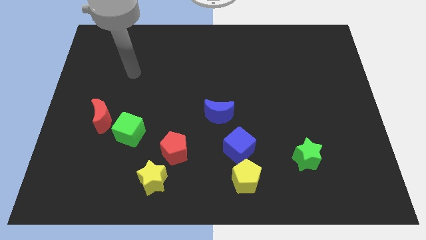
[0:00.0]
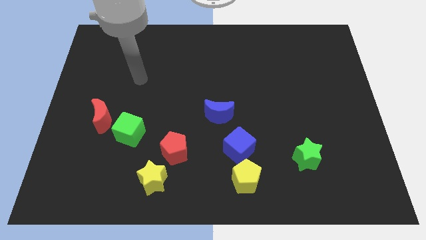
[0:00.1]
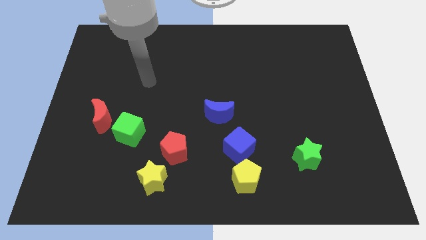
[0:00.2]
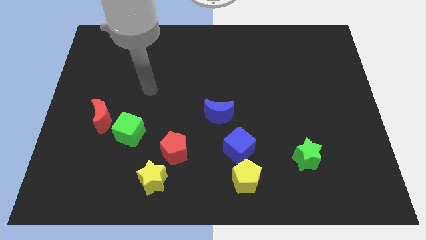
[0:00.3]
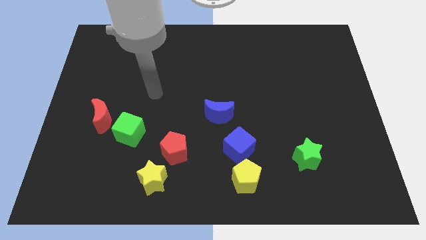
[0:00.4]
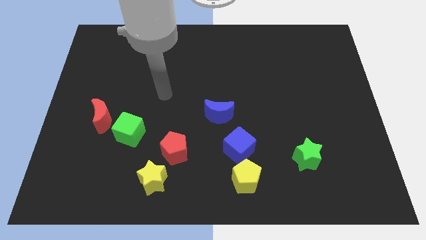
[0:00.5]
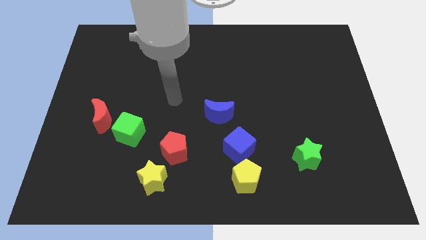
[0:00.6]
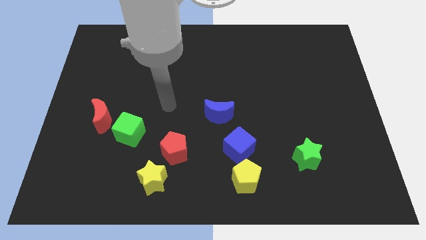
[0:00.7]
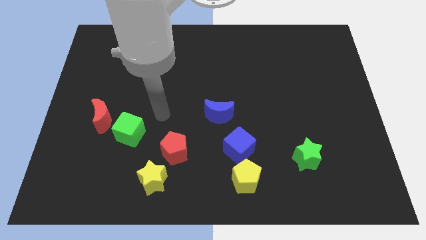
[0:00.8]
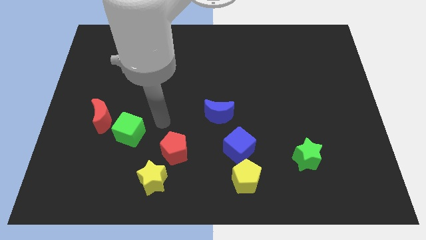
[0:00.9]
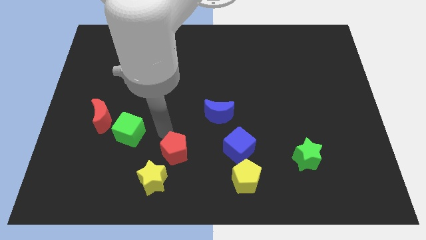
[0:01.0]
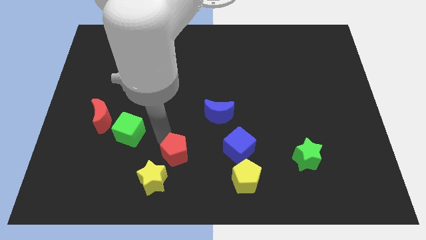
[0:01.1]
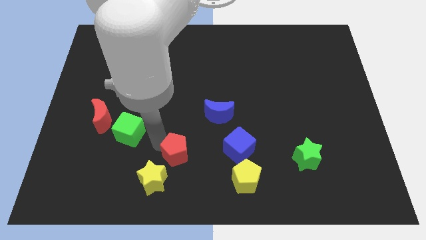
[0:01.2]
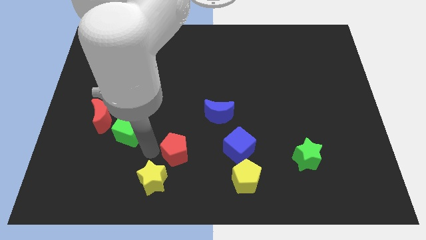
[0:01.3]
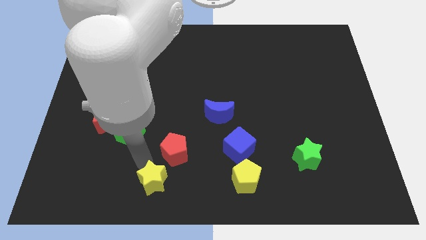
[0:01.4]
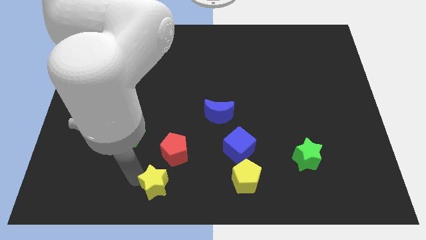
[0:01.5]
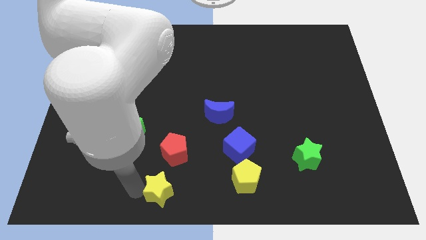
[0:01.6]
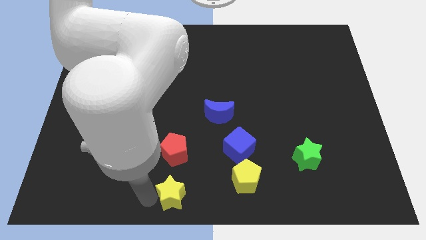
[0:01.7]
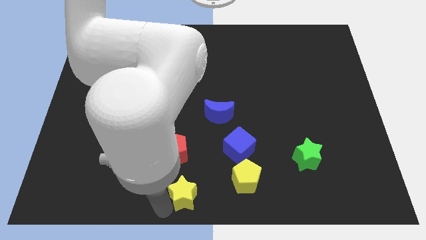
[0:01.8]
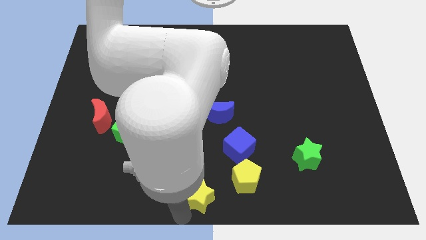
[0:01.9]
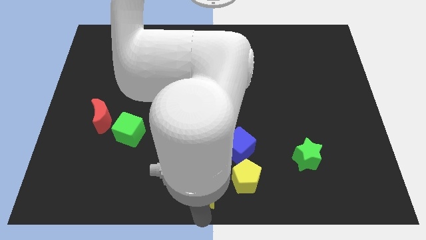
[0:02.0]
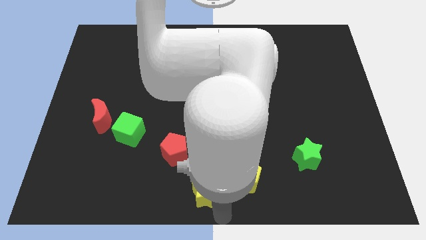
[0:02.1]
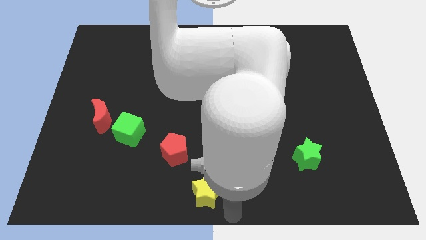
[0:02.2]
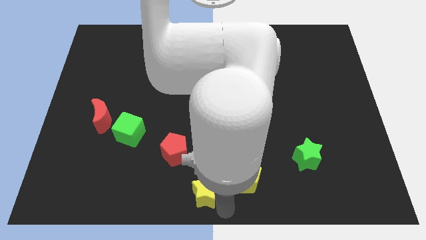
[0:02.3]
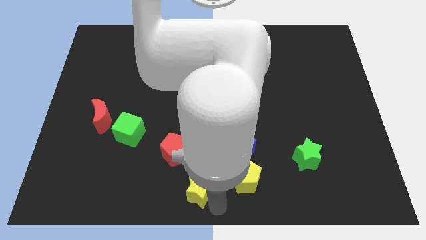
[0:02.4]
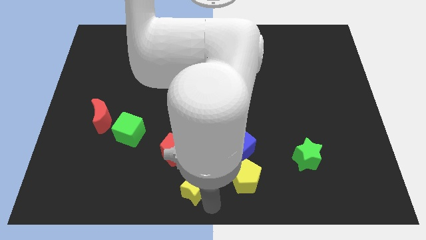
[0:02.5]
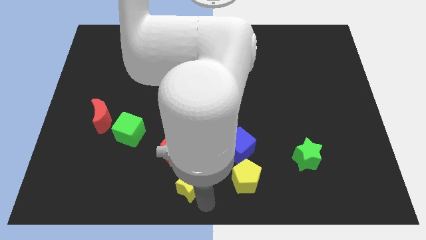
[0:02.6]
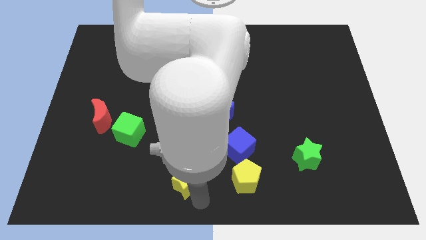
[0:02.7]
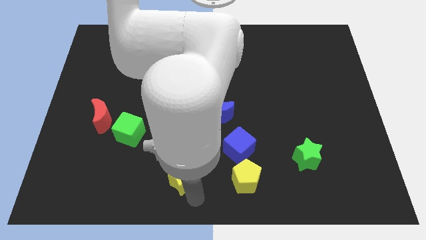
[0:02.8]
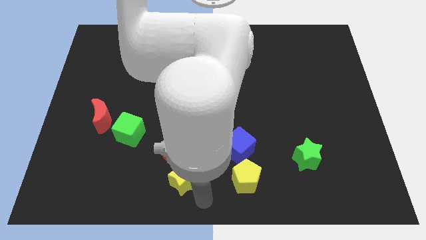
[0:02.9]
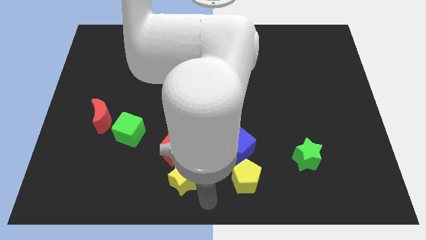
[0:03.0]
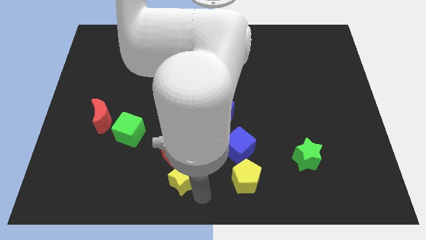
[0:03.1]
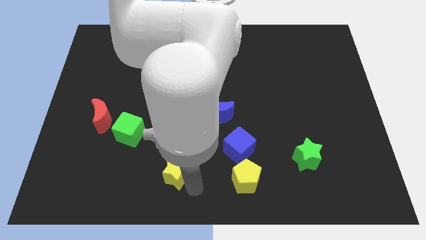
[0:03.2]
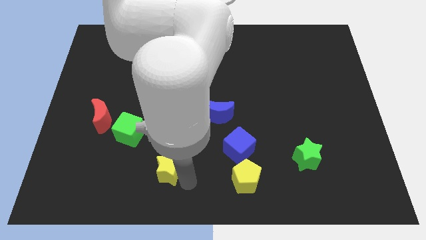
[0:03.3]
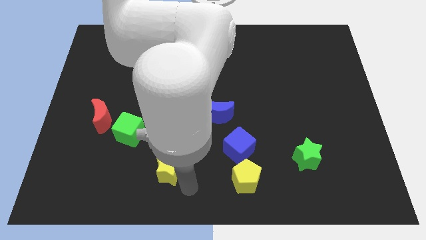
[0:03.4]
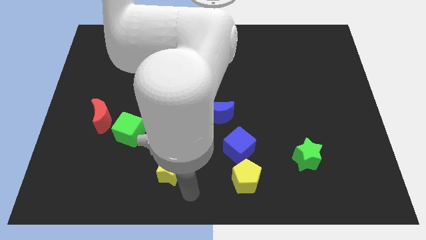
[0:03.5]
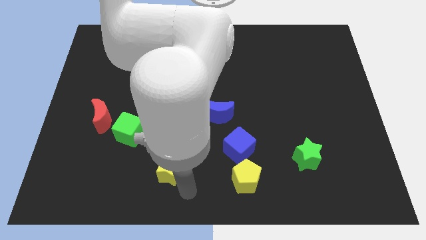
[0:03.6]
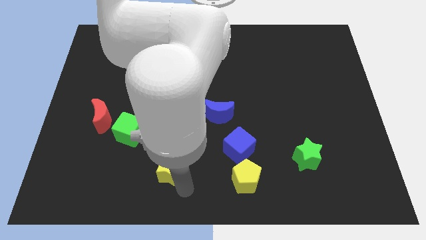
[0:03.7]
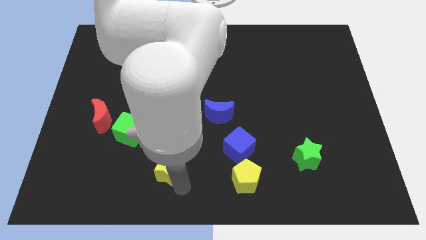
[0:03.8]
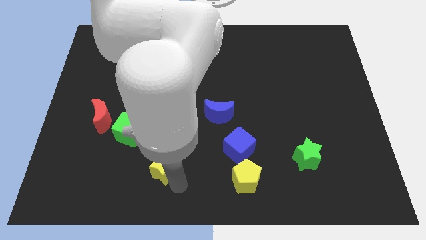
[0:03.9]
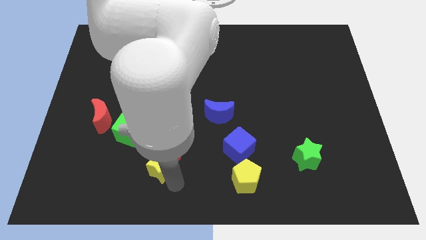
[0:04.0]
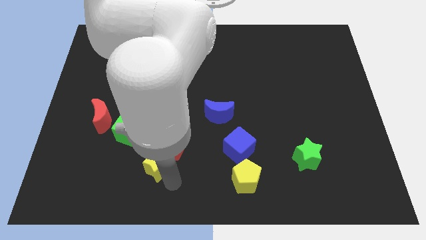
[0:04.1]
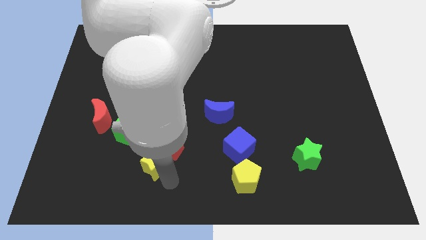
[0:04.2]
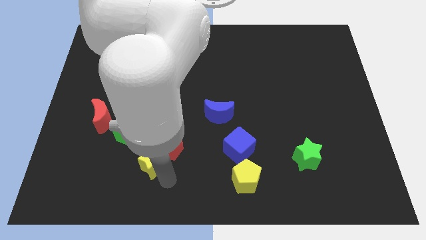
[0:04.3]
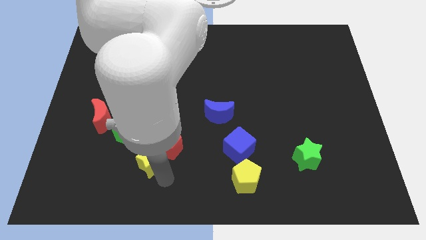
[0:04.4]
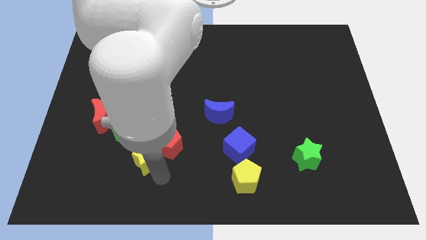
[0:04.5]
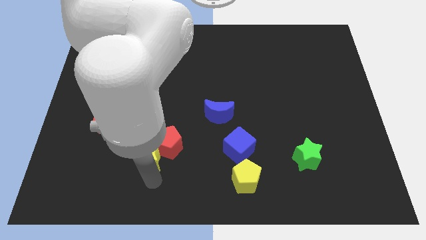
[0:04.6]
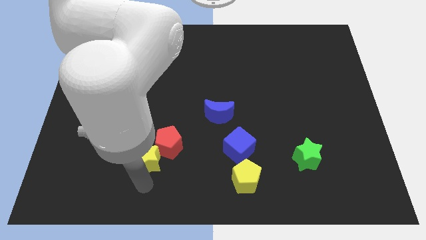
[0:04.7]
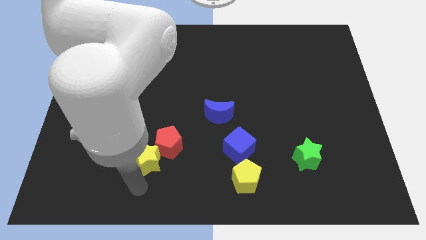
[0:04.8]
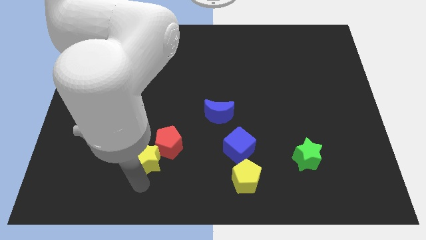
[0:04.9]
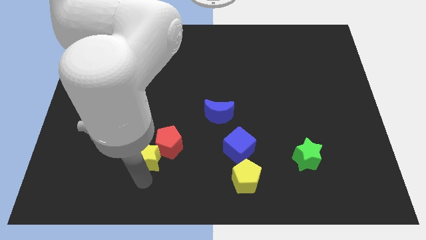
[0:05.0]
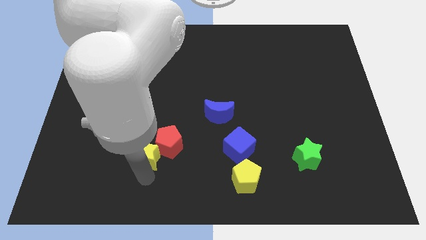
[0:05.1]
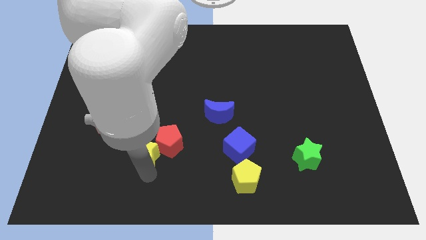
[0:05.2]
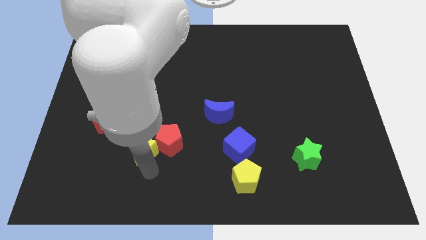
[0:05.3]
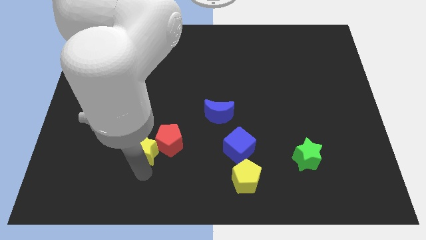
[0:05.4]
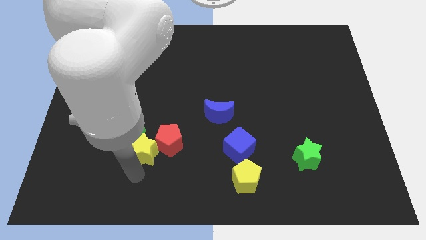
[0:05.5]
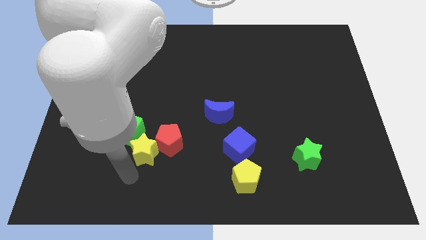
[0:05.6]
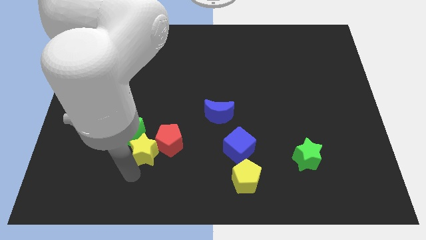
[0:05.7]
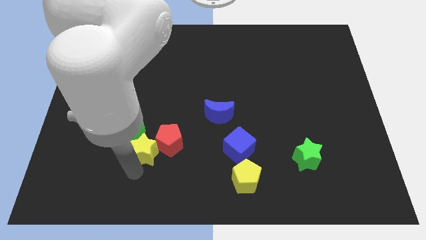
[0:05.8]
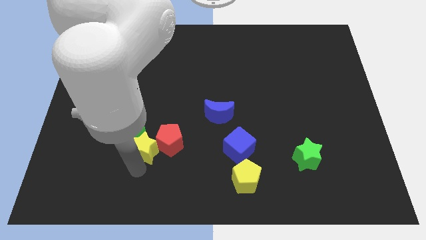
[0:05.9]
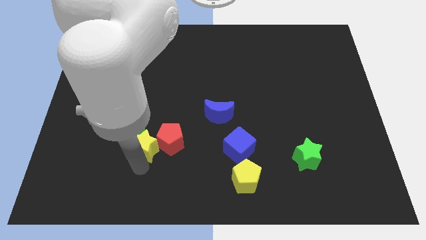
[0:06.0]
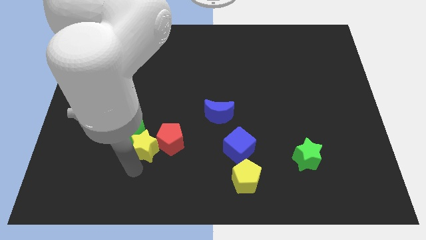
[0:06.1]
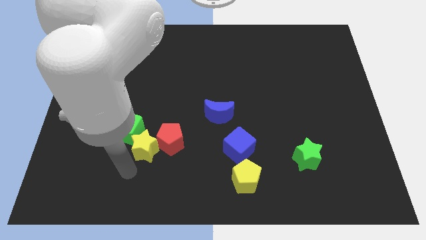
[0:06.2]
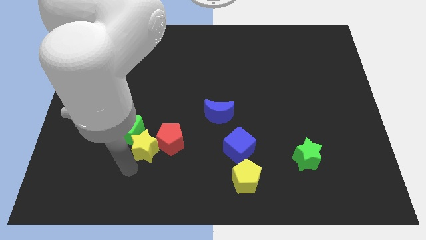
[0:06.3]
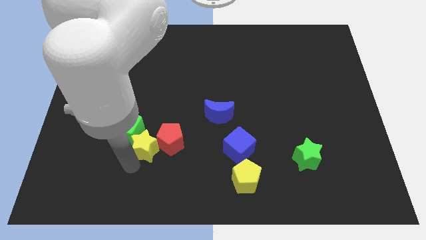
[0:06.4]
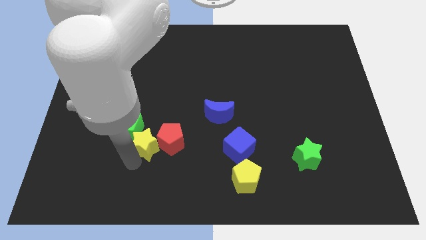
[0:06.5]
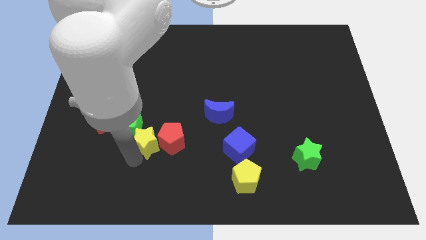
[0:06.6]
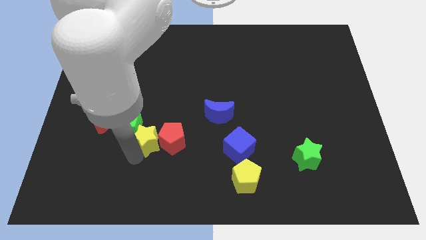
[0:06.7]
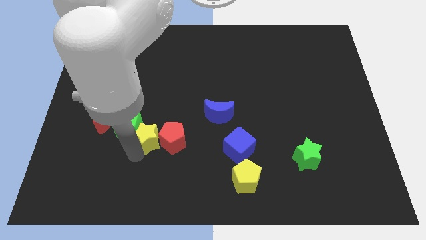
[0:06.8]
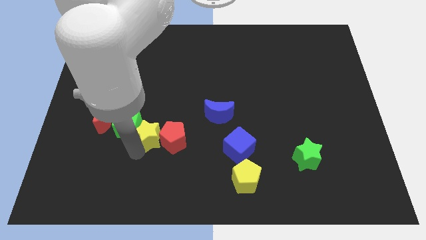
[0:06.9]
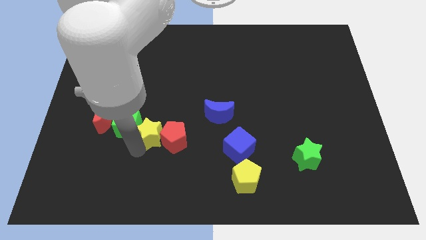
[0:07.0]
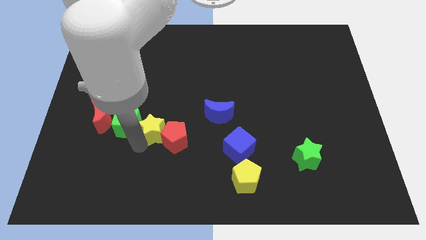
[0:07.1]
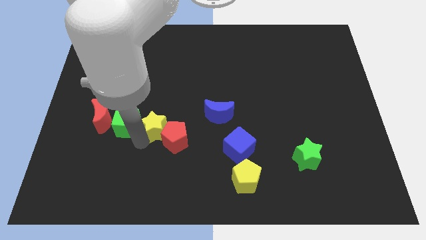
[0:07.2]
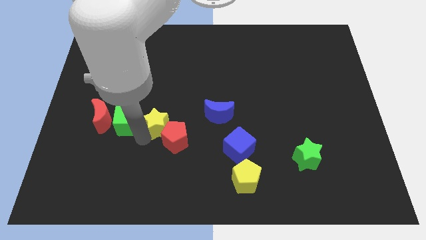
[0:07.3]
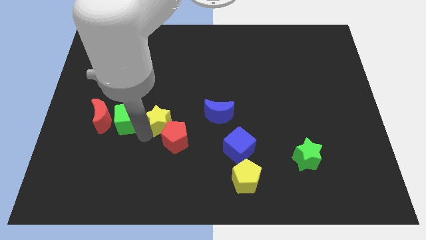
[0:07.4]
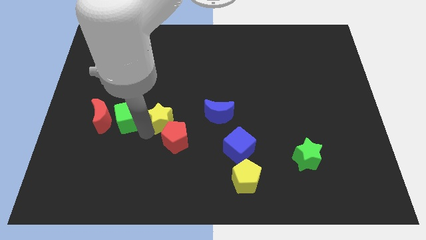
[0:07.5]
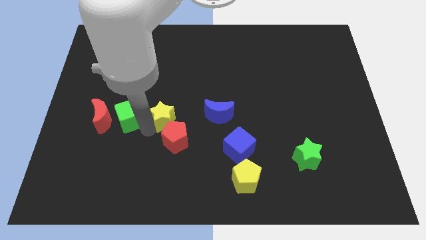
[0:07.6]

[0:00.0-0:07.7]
push the yellow star to the center of the board
